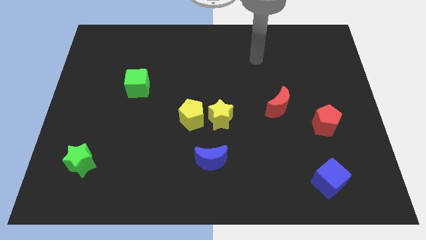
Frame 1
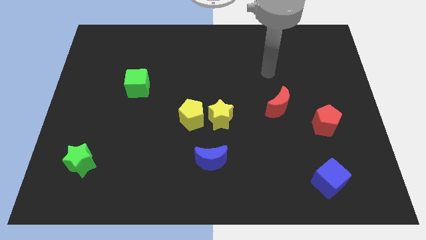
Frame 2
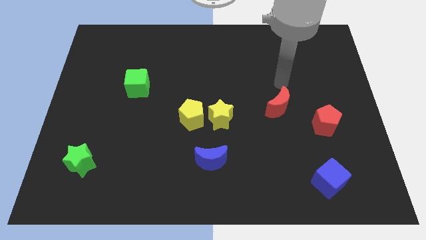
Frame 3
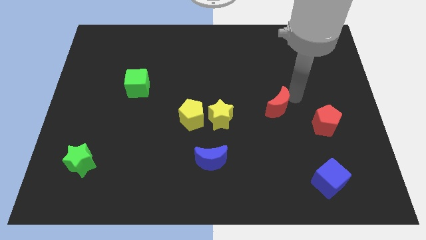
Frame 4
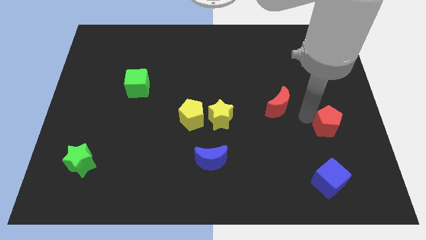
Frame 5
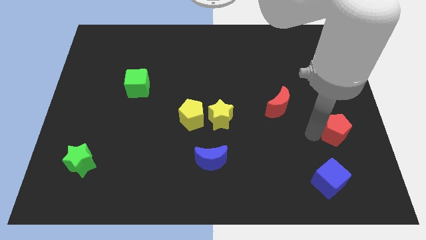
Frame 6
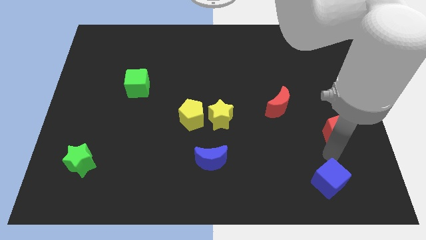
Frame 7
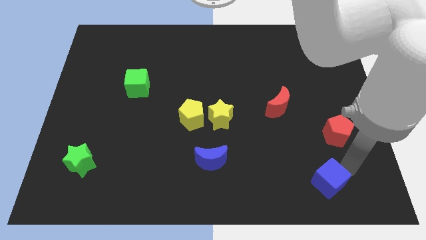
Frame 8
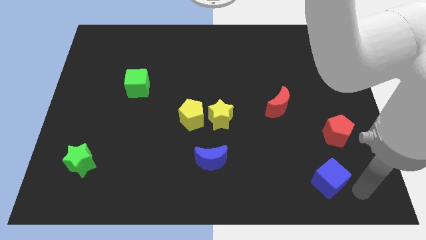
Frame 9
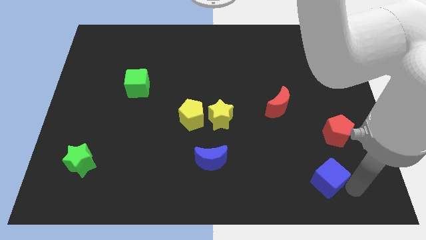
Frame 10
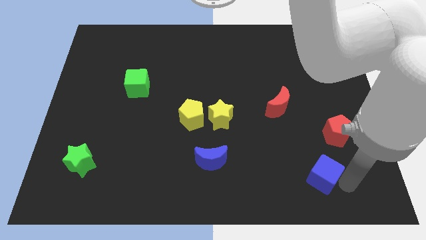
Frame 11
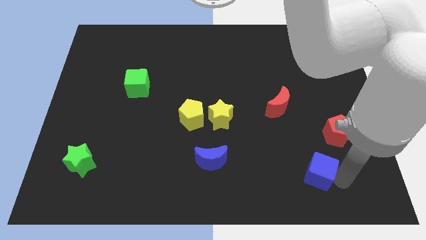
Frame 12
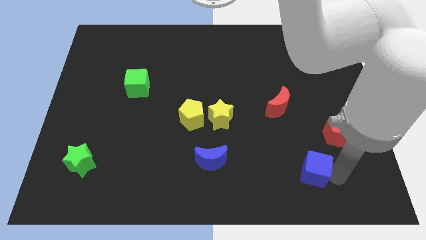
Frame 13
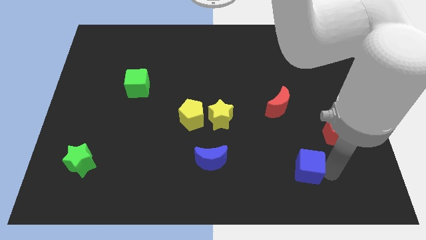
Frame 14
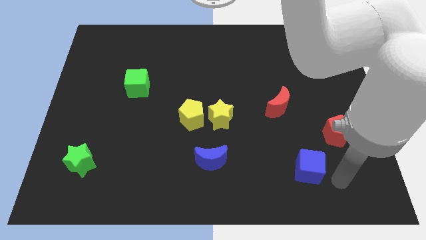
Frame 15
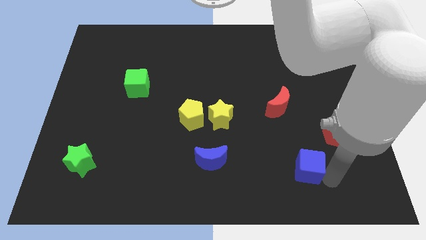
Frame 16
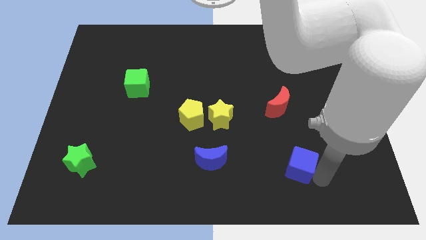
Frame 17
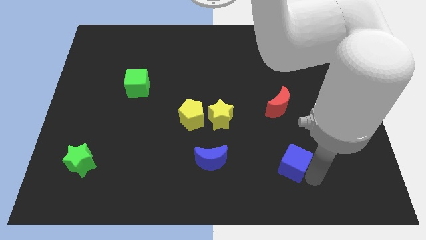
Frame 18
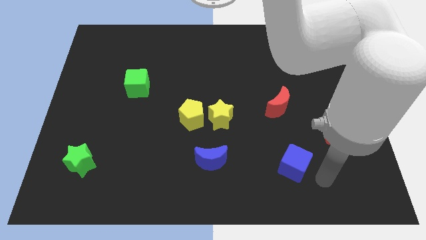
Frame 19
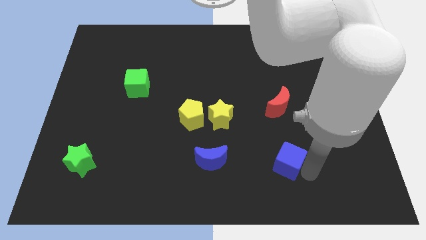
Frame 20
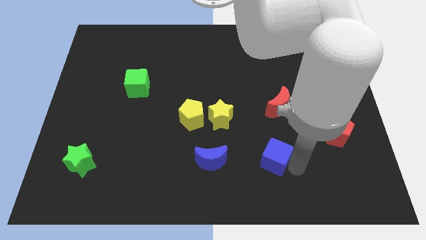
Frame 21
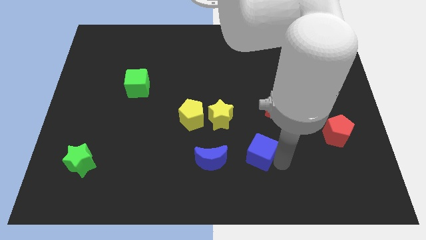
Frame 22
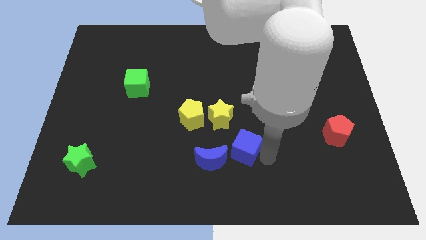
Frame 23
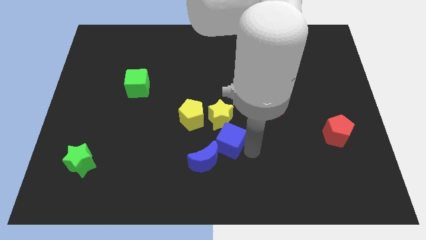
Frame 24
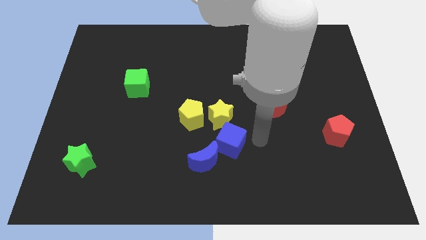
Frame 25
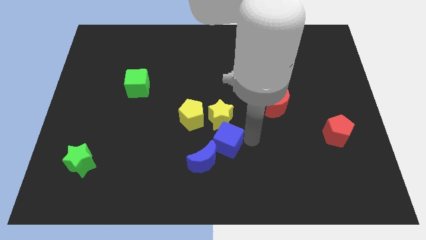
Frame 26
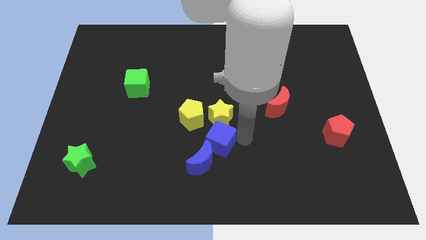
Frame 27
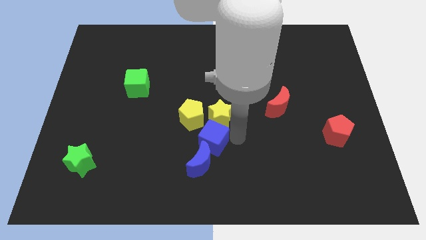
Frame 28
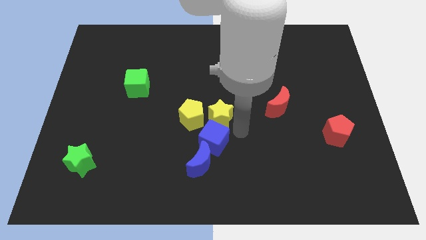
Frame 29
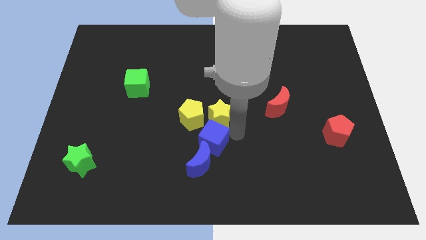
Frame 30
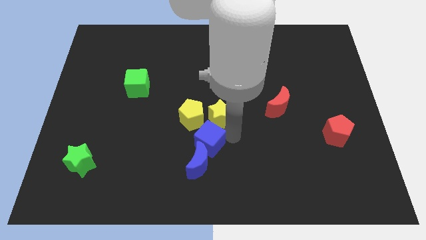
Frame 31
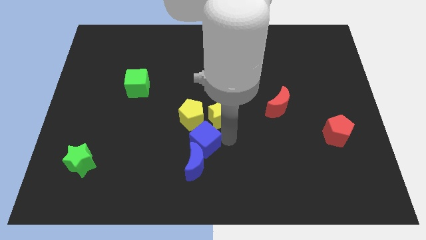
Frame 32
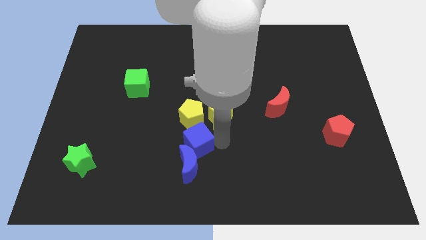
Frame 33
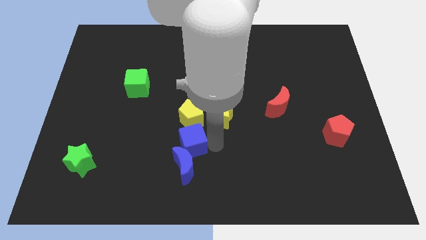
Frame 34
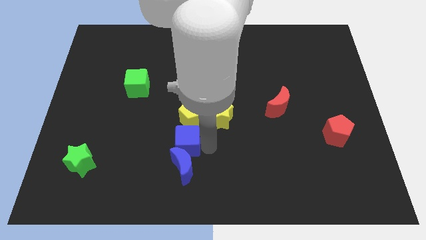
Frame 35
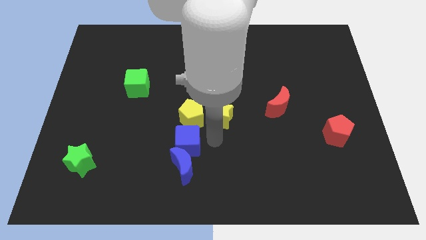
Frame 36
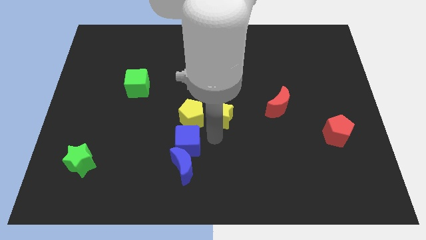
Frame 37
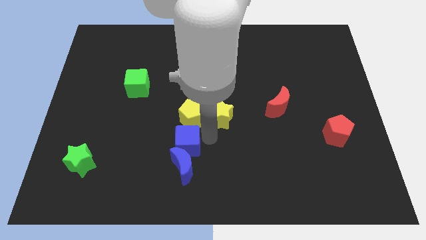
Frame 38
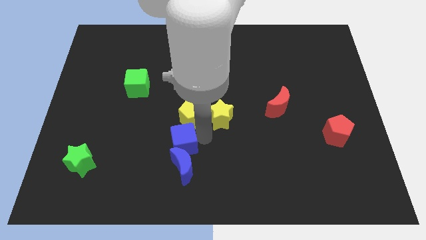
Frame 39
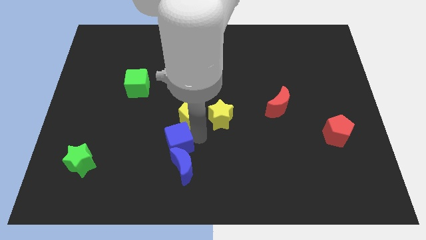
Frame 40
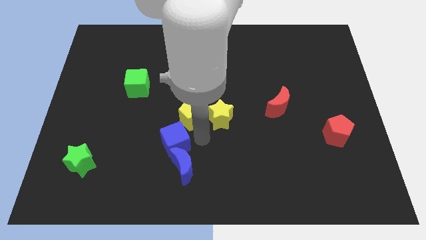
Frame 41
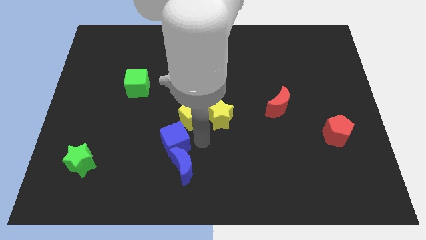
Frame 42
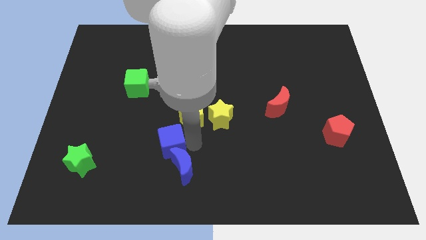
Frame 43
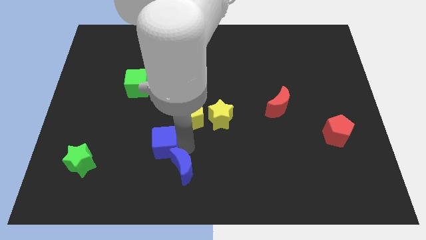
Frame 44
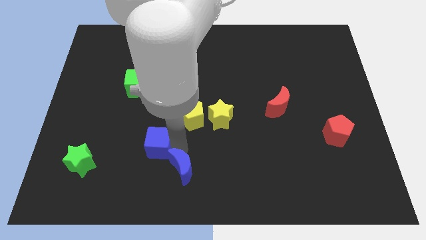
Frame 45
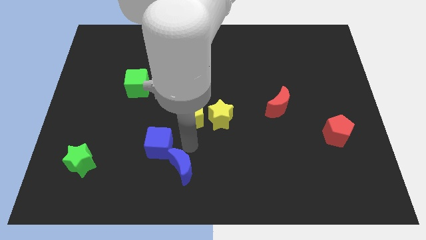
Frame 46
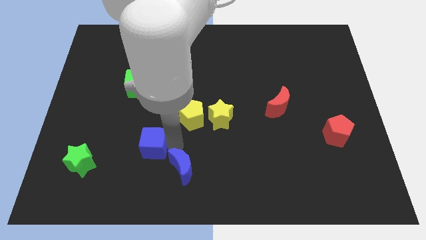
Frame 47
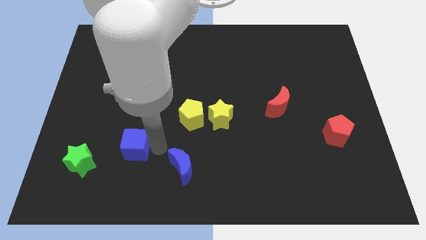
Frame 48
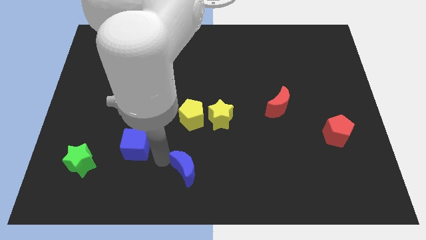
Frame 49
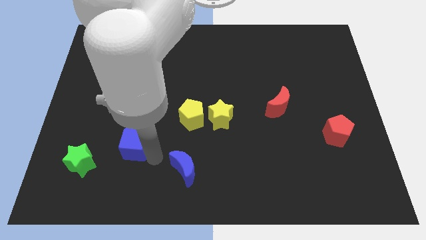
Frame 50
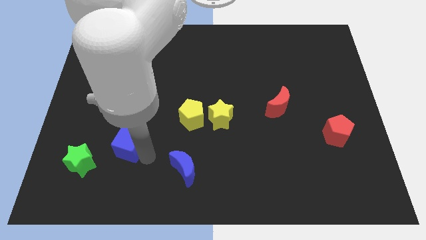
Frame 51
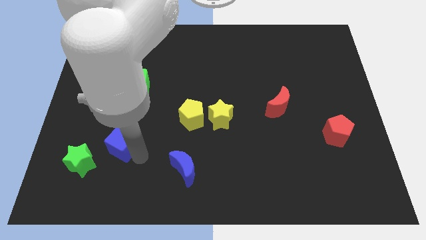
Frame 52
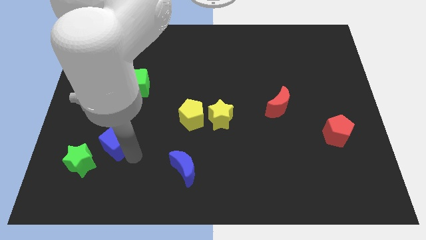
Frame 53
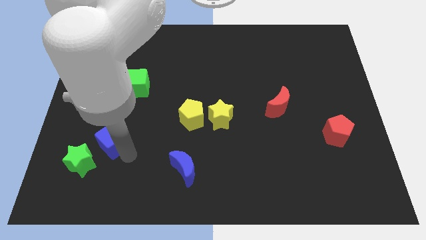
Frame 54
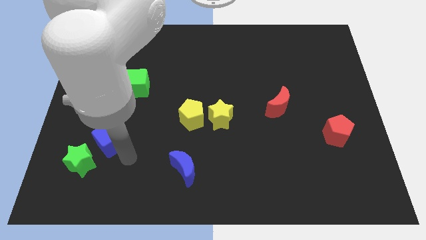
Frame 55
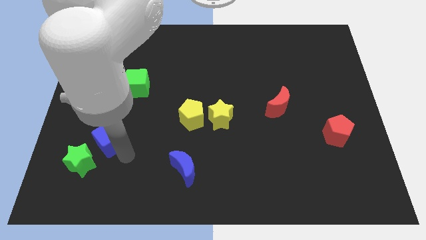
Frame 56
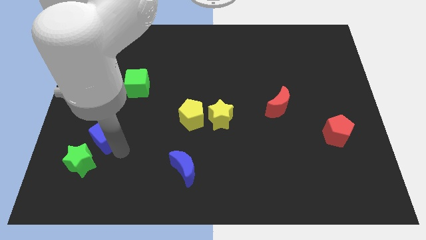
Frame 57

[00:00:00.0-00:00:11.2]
put the blue cube to the top of the green star

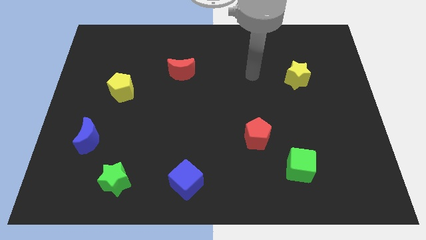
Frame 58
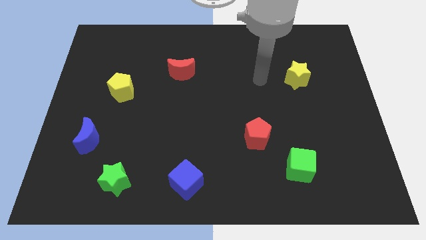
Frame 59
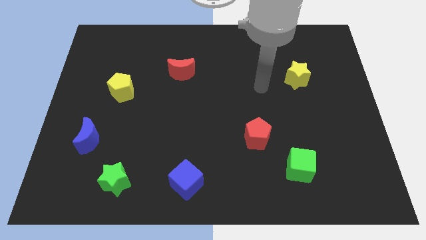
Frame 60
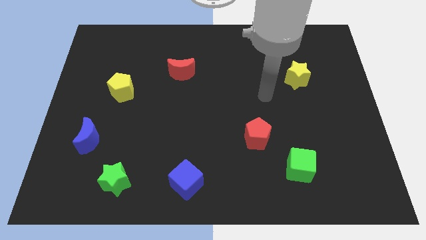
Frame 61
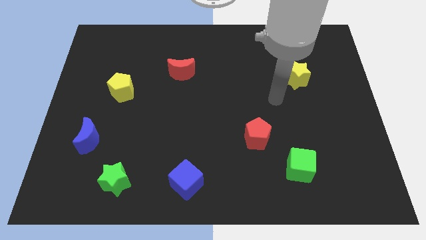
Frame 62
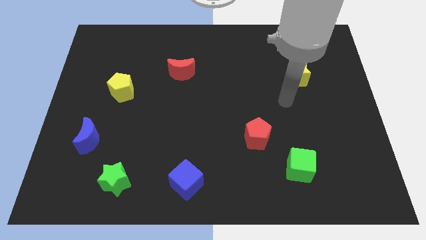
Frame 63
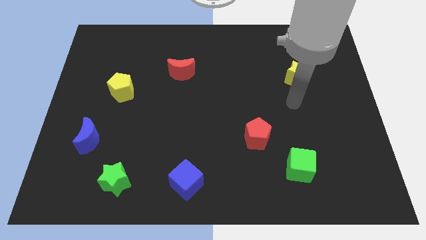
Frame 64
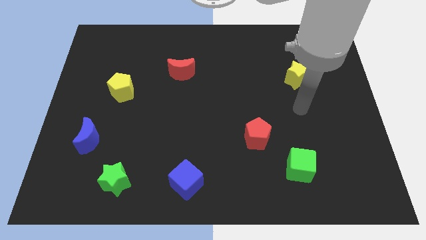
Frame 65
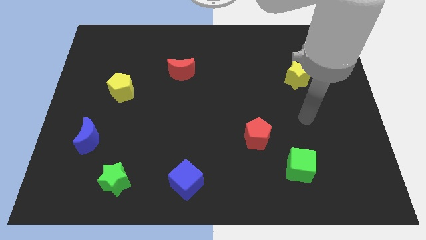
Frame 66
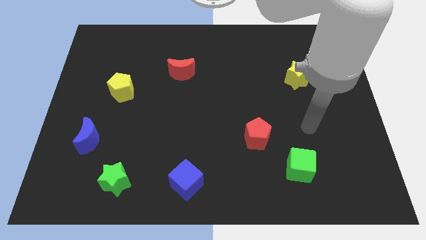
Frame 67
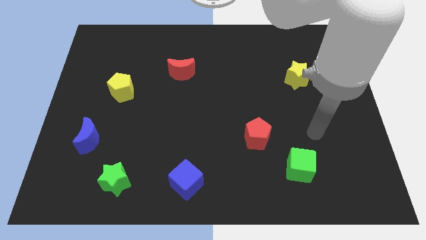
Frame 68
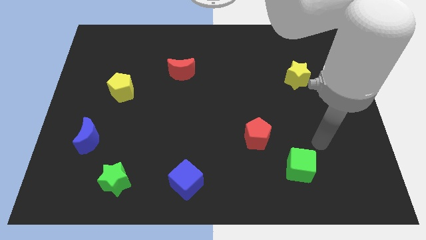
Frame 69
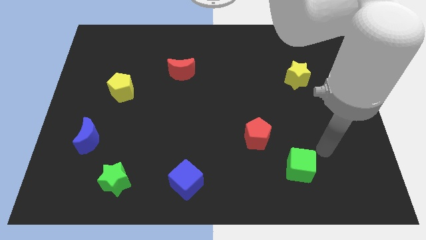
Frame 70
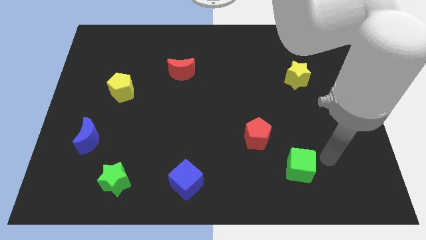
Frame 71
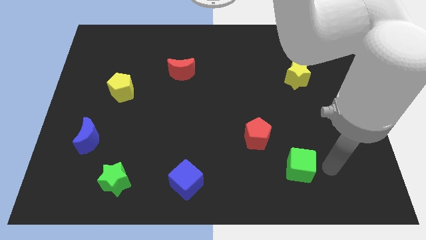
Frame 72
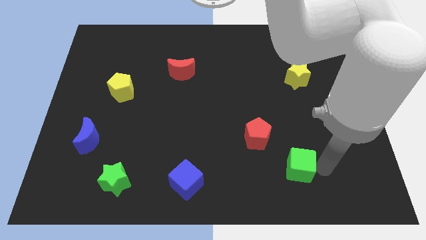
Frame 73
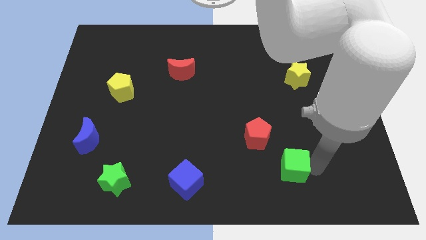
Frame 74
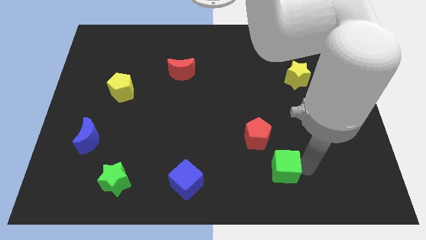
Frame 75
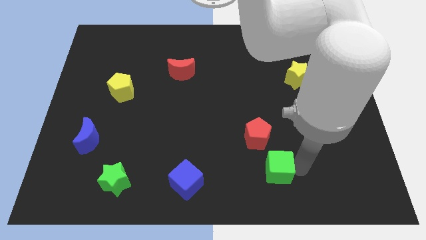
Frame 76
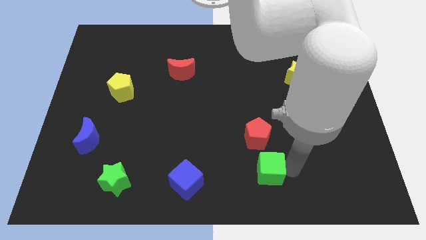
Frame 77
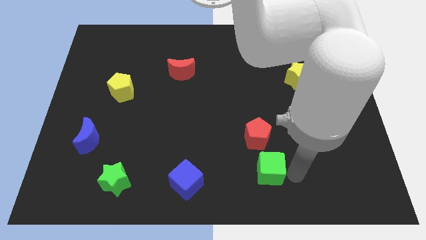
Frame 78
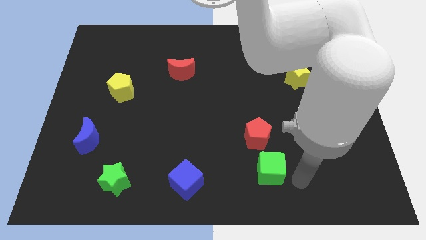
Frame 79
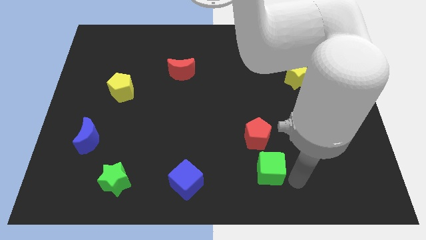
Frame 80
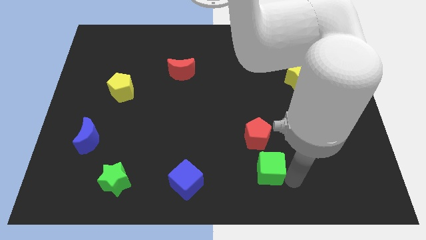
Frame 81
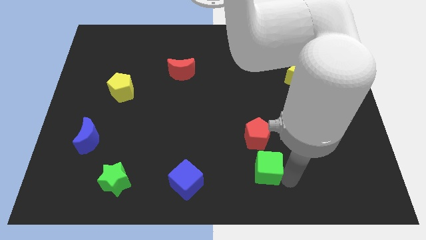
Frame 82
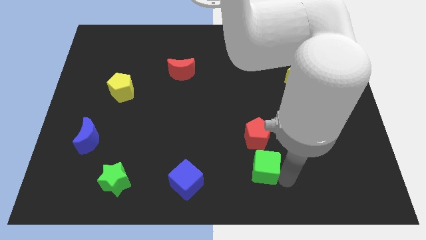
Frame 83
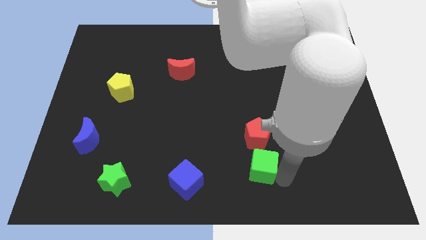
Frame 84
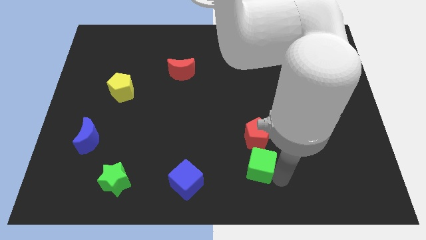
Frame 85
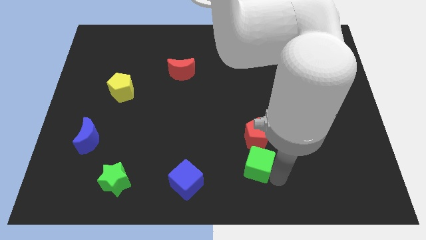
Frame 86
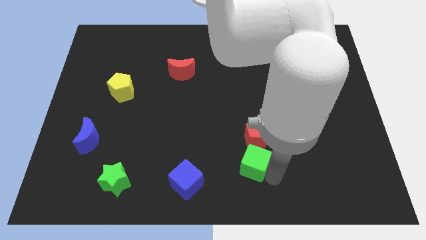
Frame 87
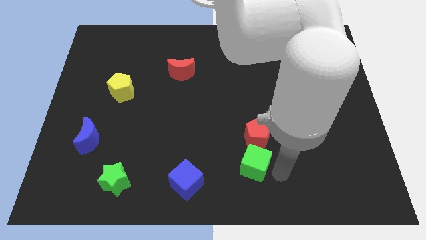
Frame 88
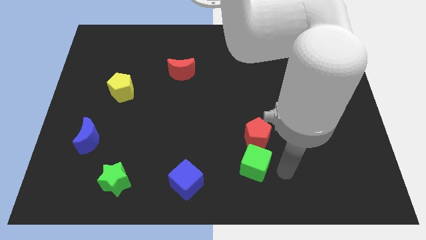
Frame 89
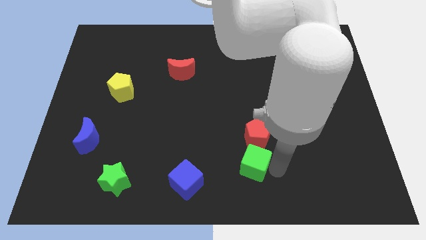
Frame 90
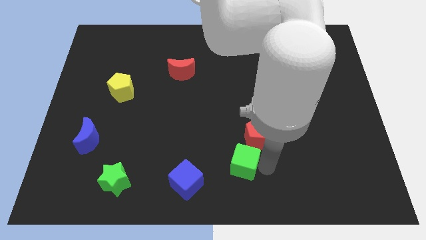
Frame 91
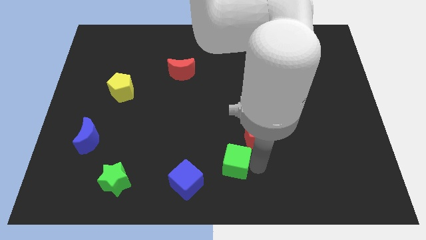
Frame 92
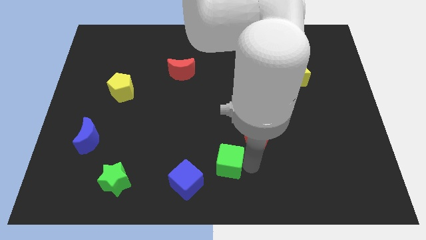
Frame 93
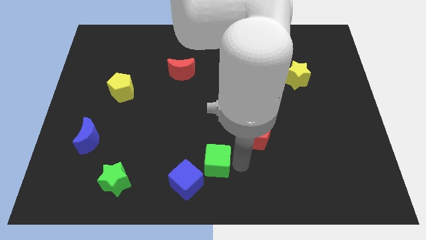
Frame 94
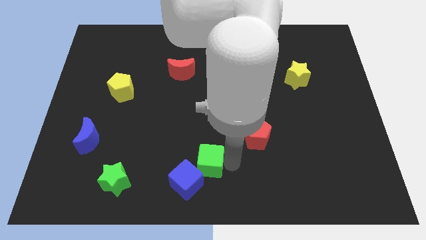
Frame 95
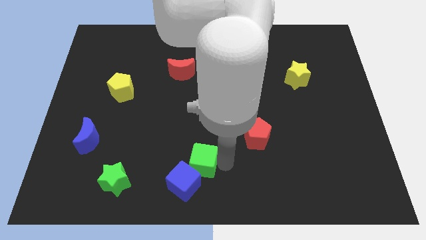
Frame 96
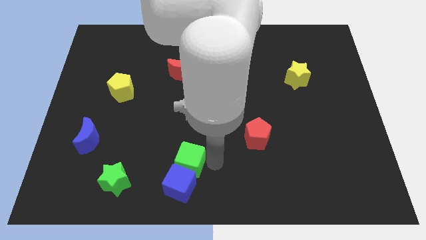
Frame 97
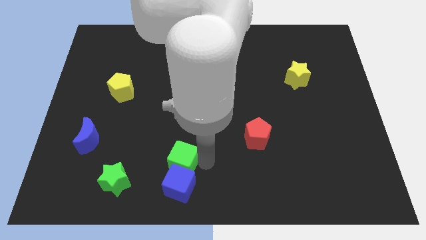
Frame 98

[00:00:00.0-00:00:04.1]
put the green cube to the top left of the blue cube
